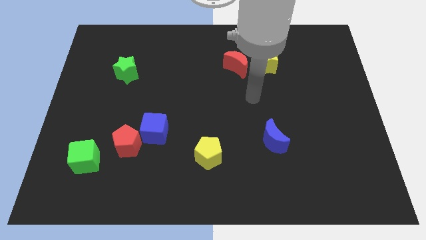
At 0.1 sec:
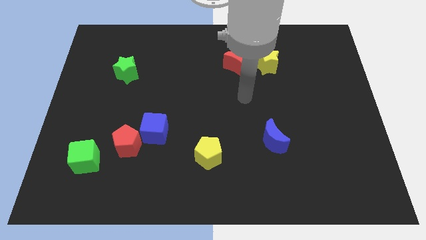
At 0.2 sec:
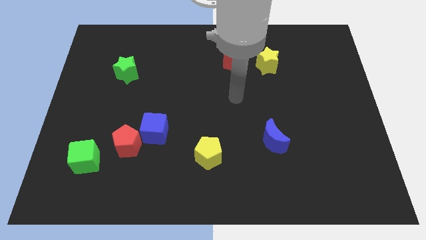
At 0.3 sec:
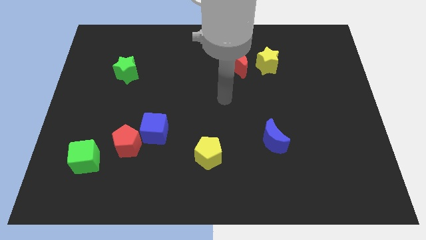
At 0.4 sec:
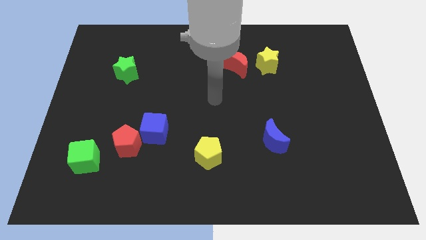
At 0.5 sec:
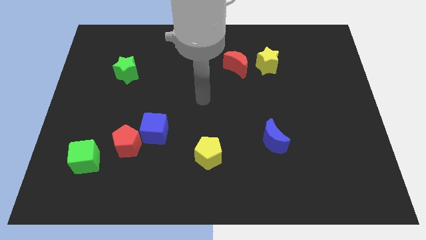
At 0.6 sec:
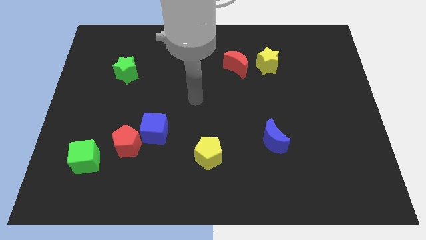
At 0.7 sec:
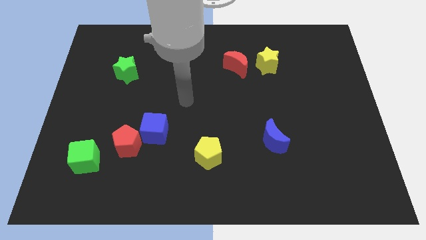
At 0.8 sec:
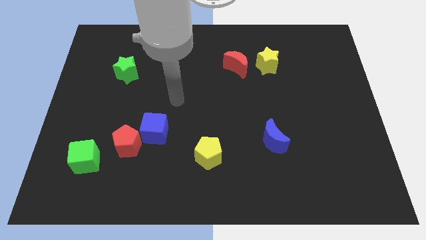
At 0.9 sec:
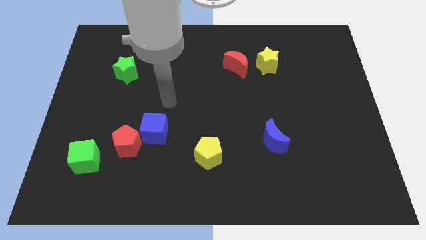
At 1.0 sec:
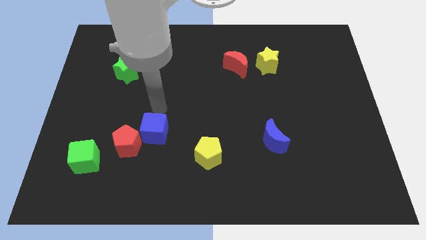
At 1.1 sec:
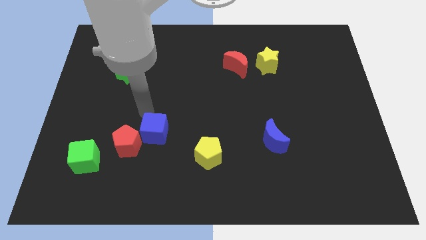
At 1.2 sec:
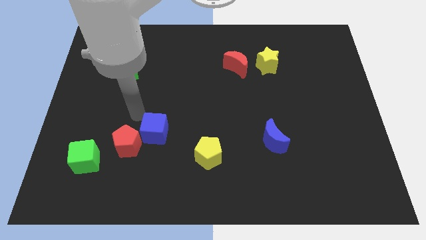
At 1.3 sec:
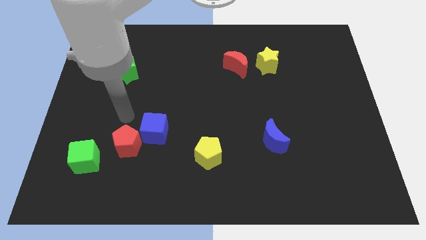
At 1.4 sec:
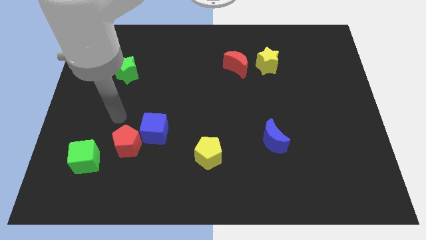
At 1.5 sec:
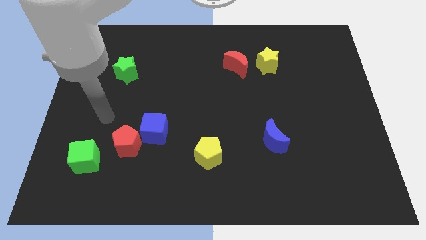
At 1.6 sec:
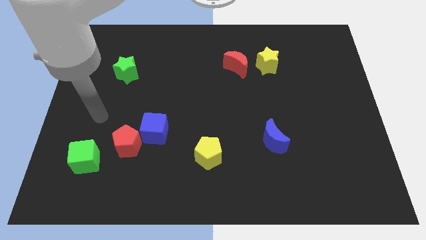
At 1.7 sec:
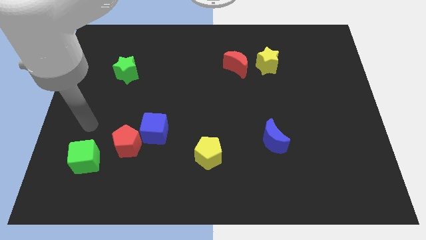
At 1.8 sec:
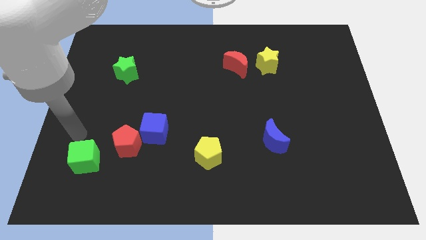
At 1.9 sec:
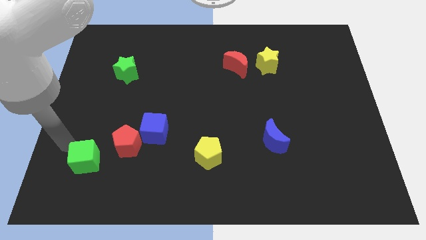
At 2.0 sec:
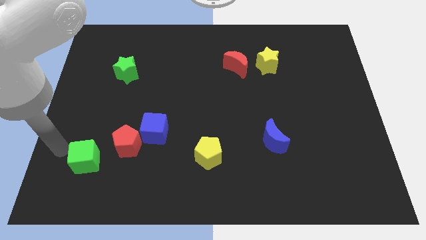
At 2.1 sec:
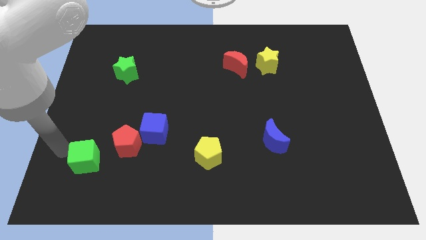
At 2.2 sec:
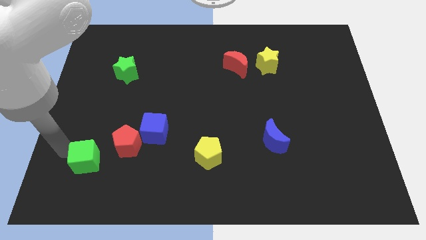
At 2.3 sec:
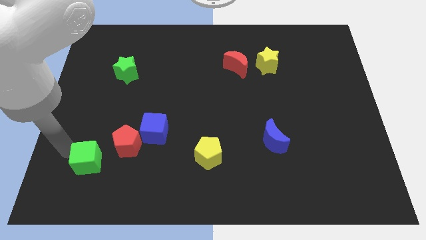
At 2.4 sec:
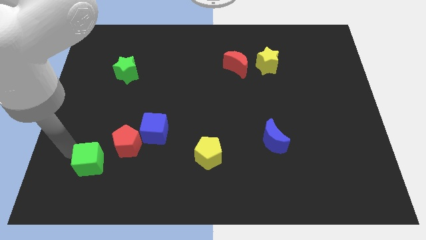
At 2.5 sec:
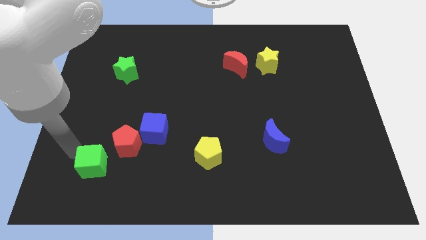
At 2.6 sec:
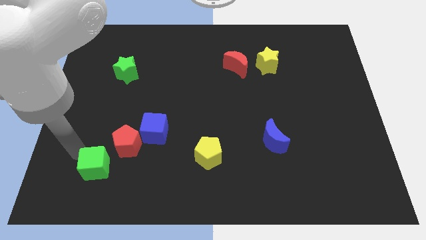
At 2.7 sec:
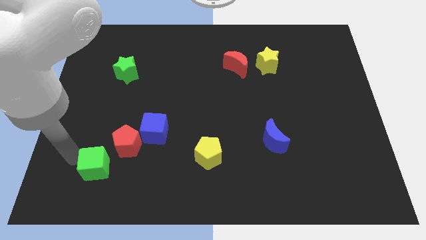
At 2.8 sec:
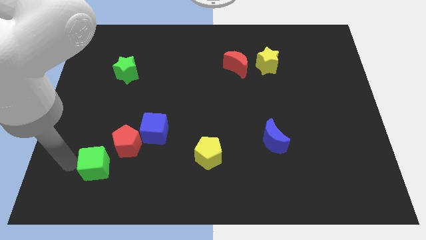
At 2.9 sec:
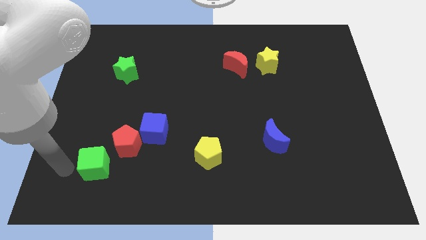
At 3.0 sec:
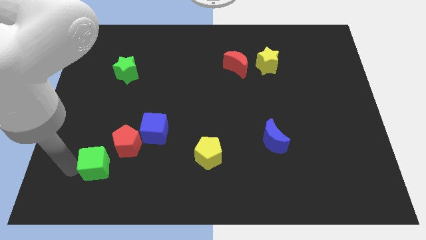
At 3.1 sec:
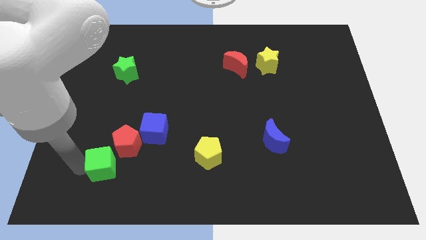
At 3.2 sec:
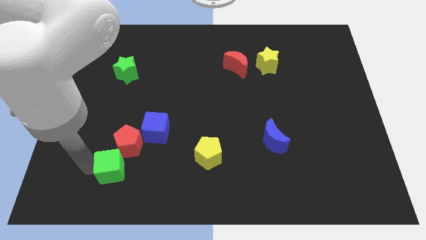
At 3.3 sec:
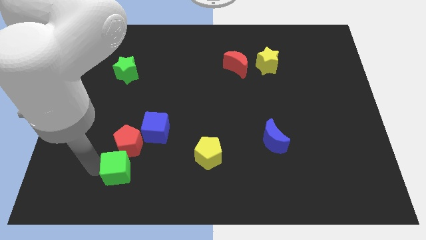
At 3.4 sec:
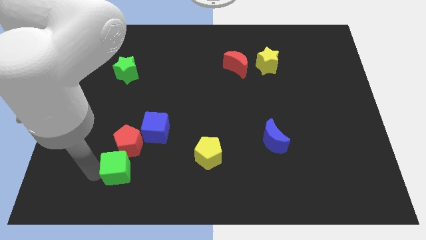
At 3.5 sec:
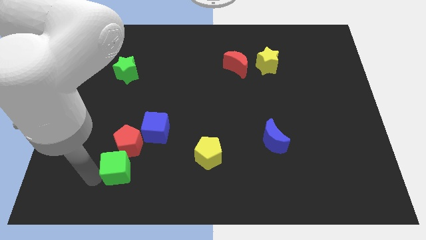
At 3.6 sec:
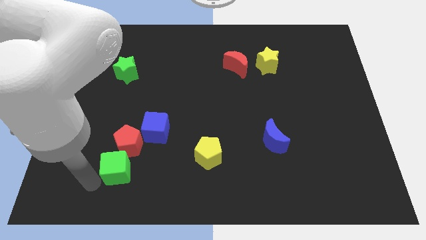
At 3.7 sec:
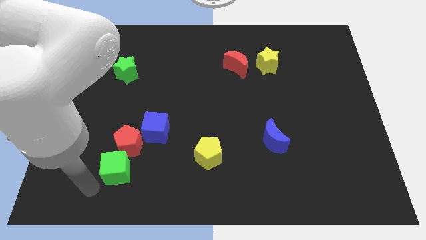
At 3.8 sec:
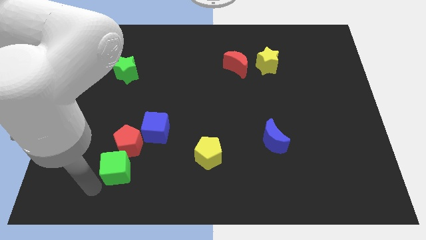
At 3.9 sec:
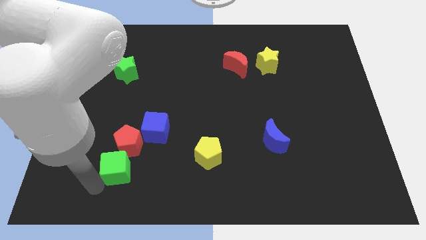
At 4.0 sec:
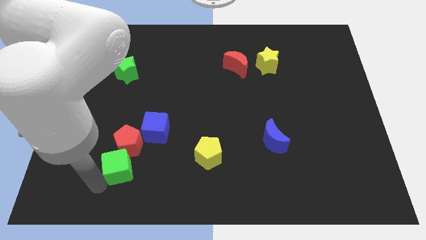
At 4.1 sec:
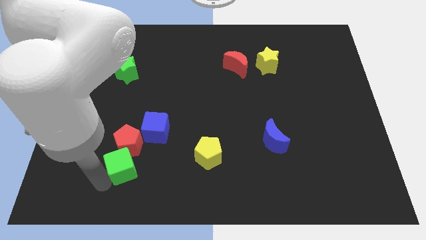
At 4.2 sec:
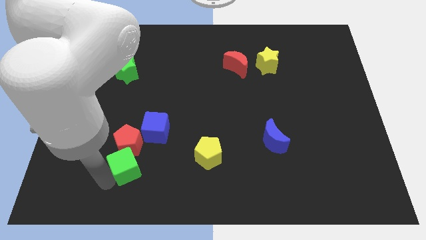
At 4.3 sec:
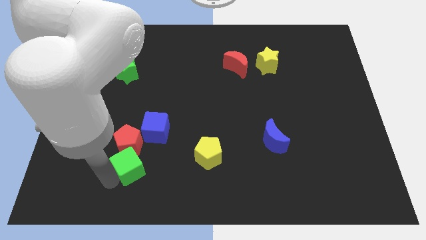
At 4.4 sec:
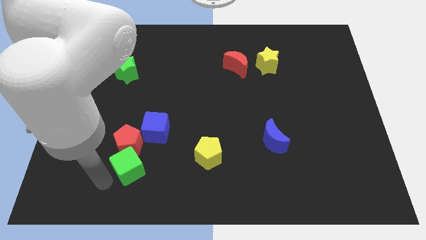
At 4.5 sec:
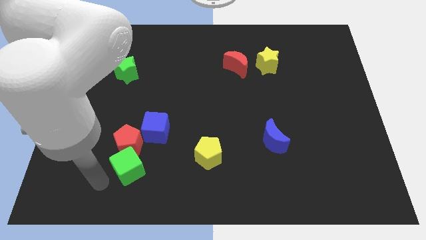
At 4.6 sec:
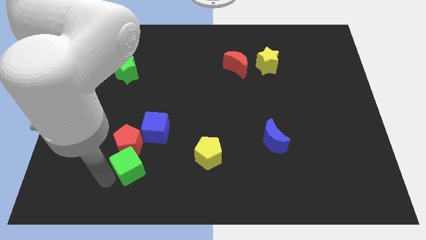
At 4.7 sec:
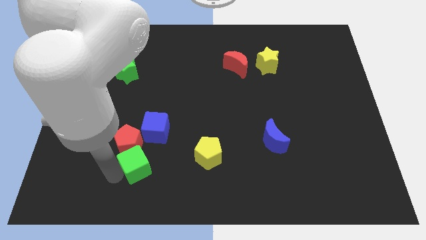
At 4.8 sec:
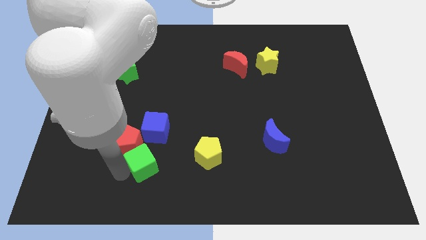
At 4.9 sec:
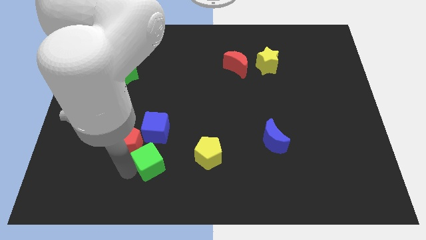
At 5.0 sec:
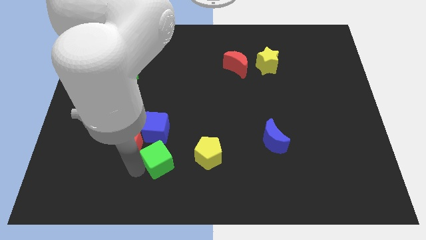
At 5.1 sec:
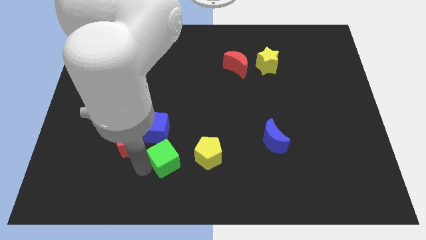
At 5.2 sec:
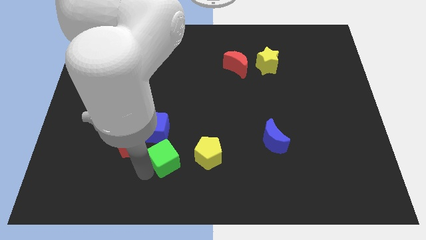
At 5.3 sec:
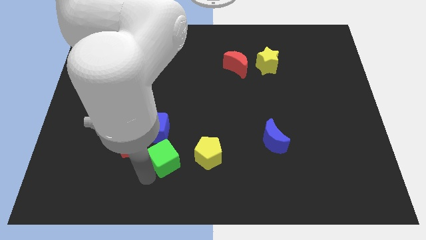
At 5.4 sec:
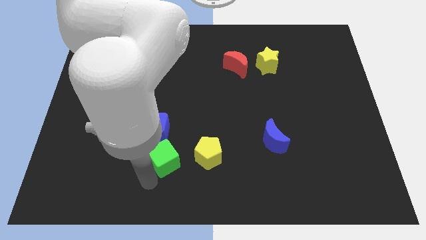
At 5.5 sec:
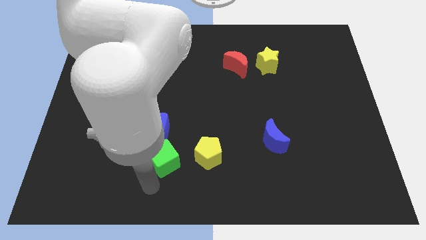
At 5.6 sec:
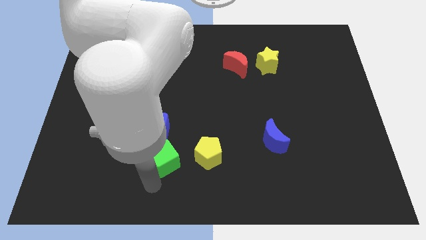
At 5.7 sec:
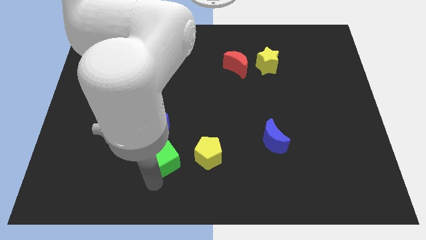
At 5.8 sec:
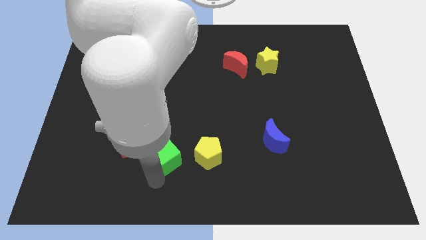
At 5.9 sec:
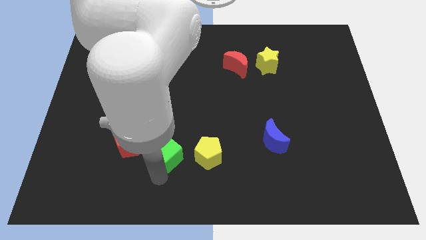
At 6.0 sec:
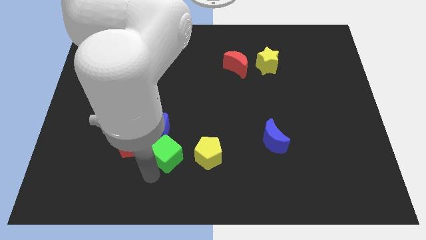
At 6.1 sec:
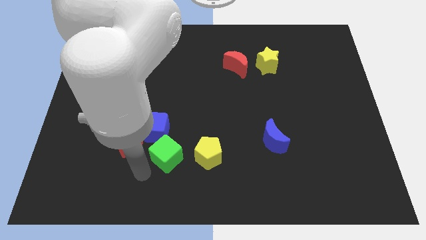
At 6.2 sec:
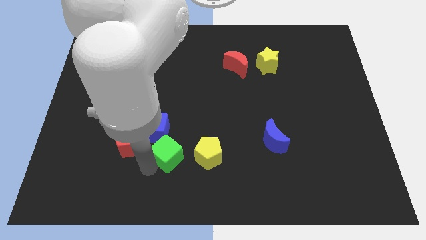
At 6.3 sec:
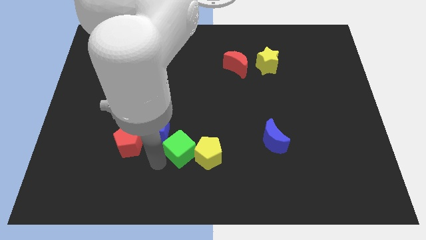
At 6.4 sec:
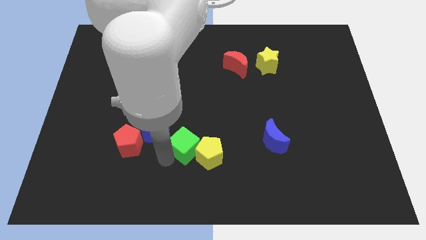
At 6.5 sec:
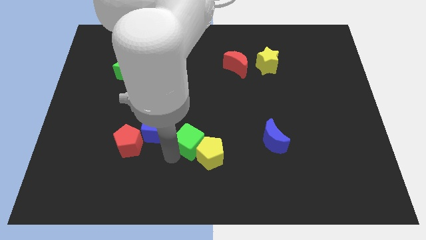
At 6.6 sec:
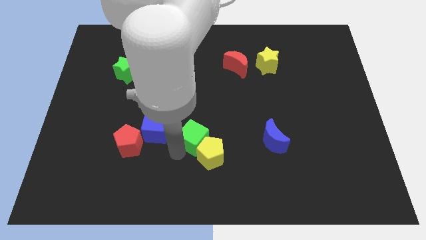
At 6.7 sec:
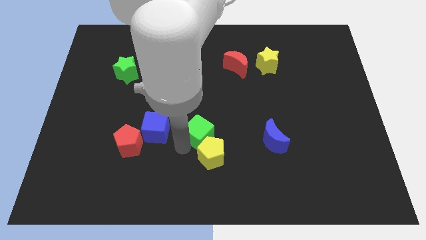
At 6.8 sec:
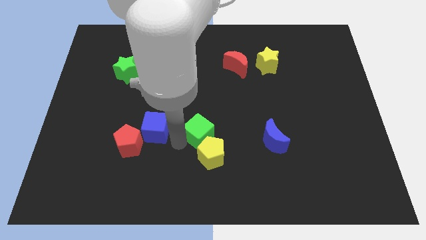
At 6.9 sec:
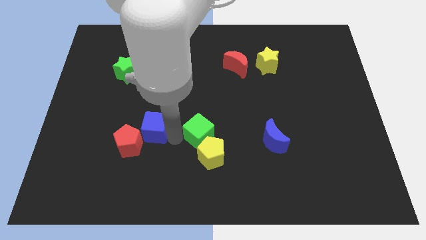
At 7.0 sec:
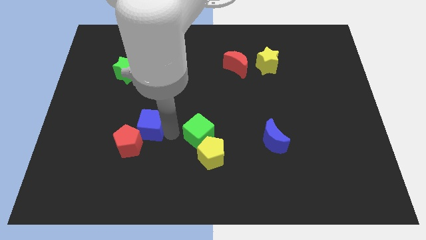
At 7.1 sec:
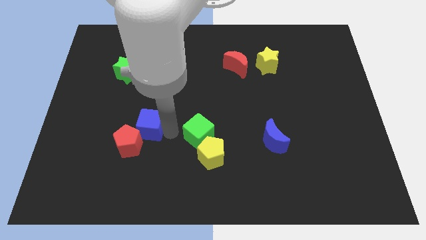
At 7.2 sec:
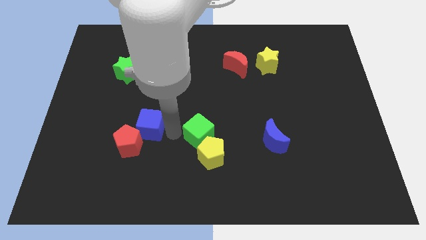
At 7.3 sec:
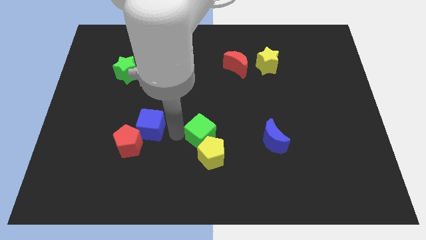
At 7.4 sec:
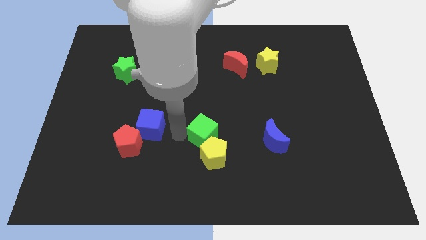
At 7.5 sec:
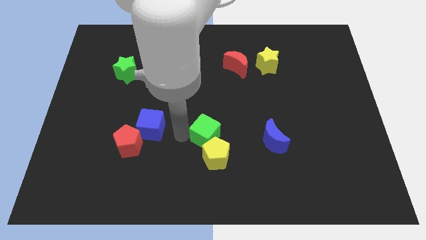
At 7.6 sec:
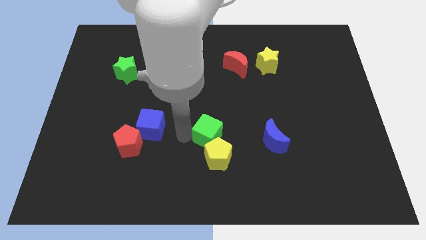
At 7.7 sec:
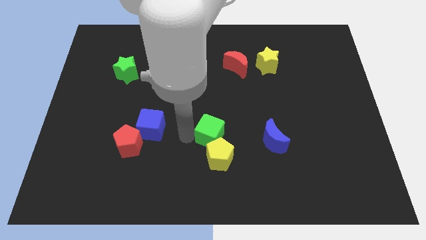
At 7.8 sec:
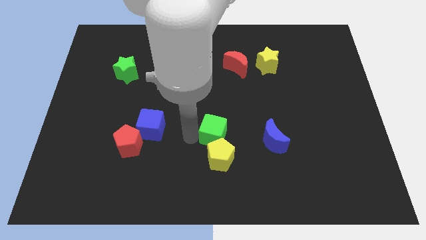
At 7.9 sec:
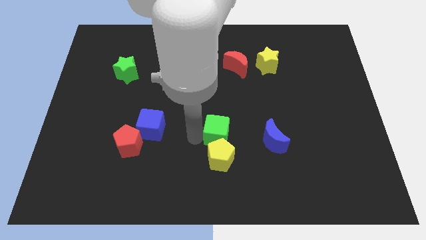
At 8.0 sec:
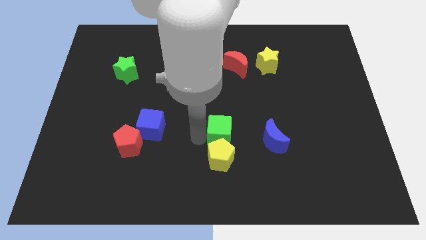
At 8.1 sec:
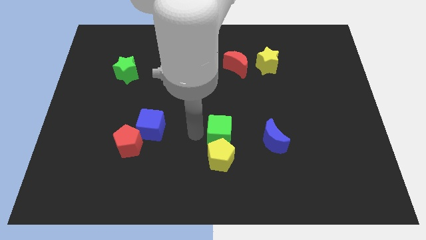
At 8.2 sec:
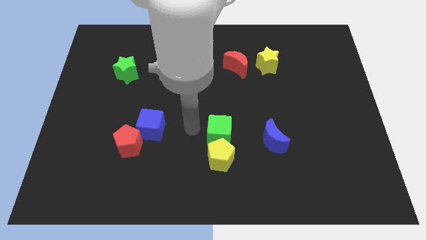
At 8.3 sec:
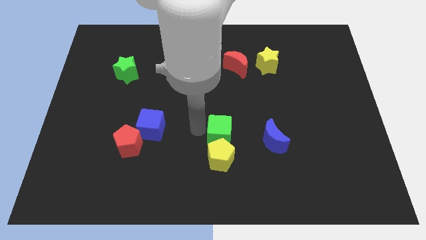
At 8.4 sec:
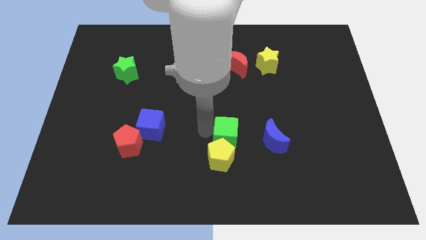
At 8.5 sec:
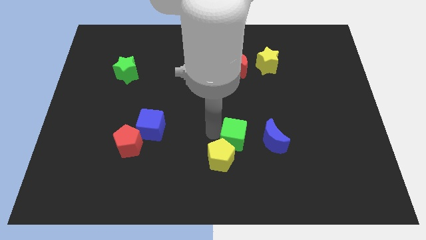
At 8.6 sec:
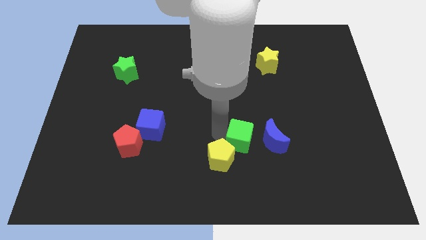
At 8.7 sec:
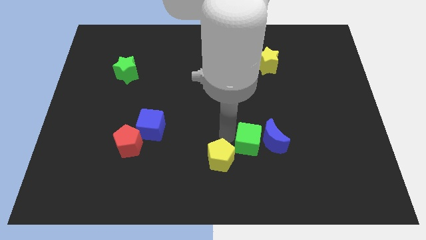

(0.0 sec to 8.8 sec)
move the green cube towards the blue moon
